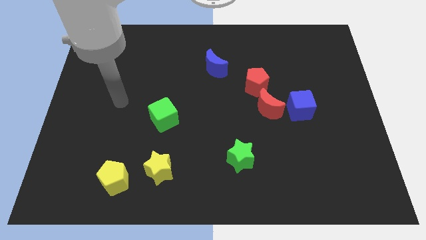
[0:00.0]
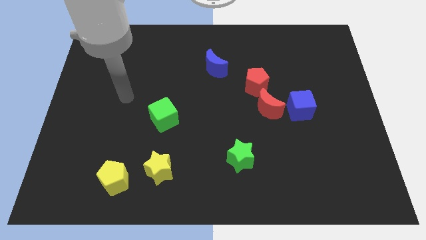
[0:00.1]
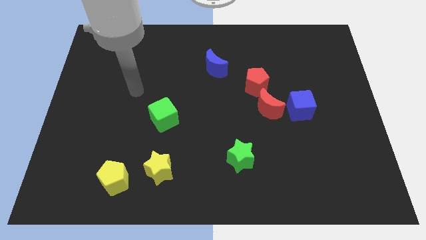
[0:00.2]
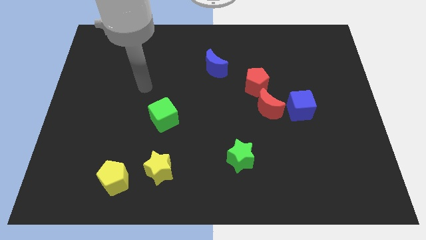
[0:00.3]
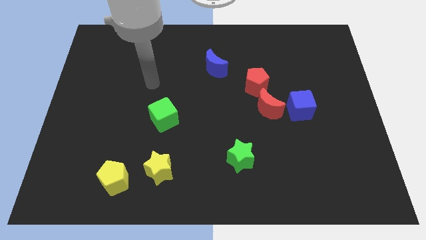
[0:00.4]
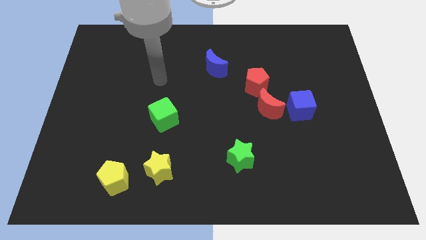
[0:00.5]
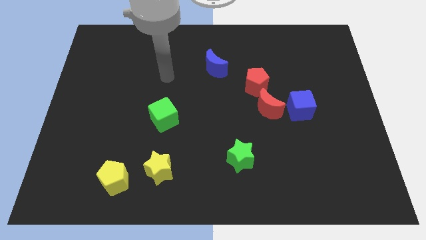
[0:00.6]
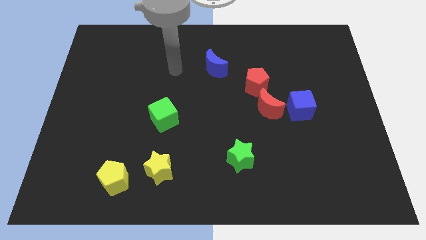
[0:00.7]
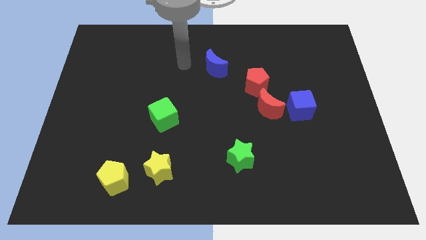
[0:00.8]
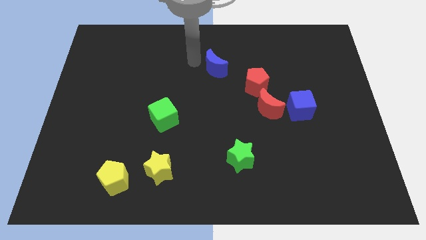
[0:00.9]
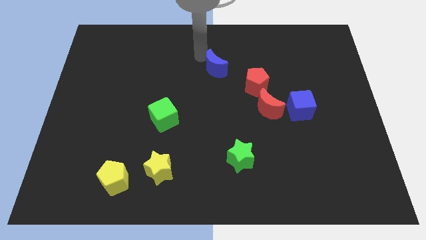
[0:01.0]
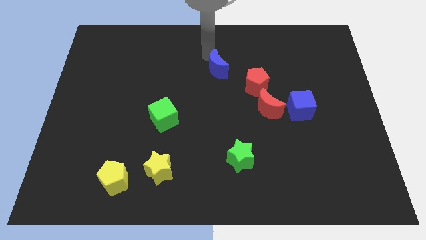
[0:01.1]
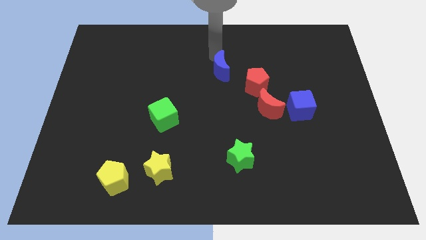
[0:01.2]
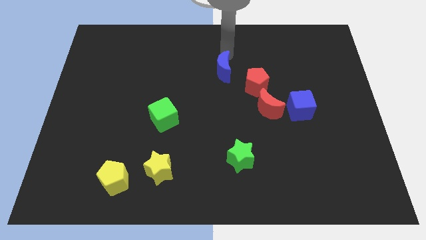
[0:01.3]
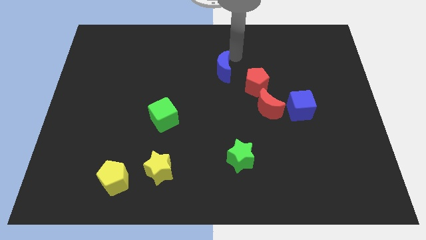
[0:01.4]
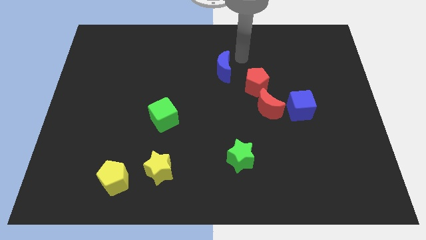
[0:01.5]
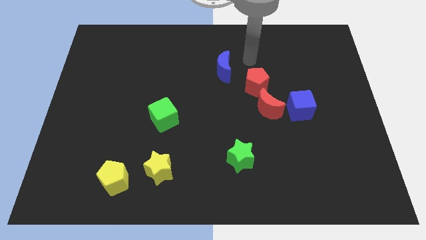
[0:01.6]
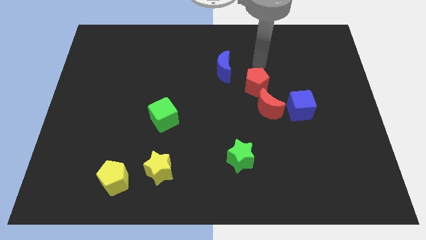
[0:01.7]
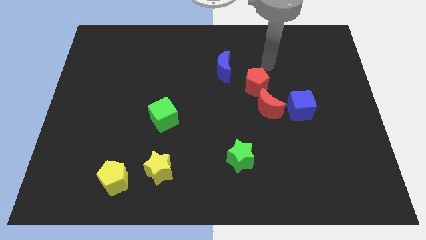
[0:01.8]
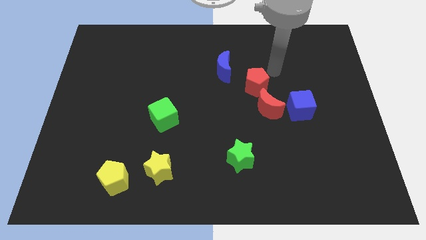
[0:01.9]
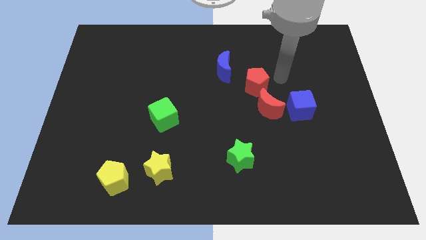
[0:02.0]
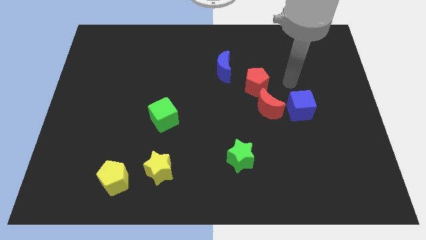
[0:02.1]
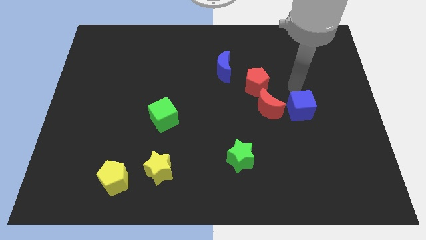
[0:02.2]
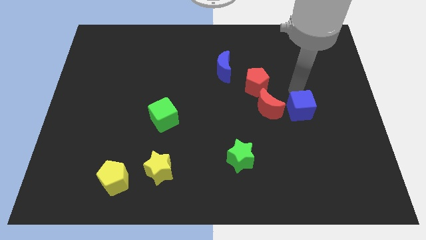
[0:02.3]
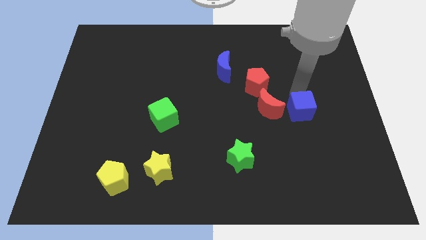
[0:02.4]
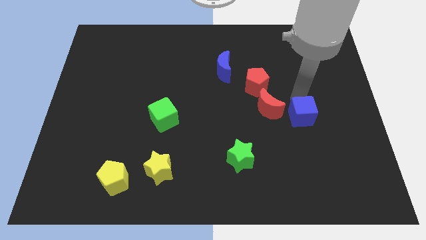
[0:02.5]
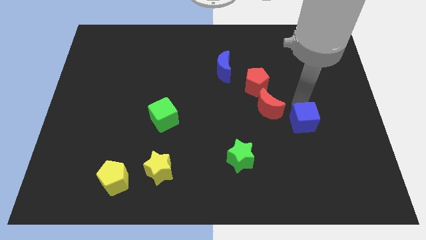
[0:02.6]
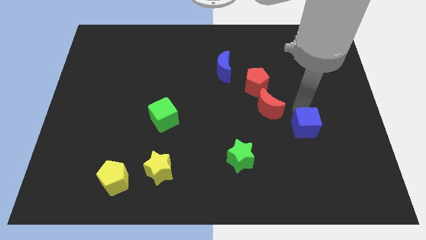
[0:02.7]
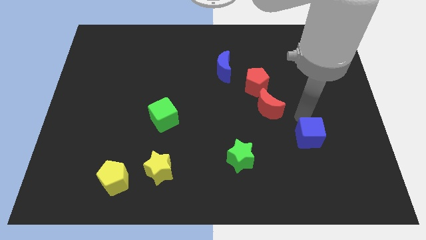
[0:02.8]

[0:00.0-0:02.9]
slightly move the blue cube down

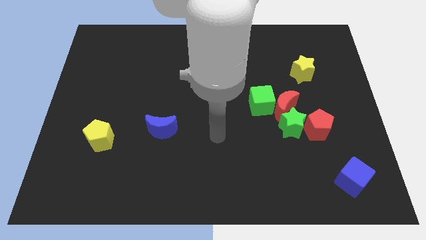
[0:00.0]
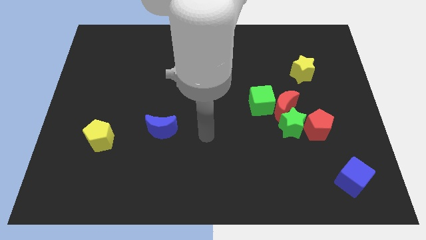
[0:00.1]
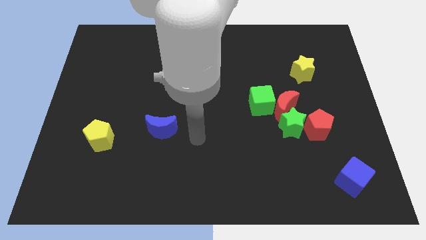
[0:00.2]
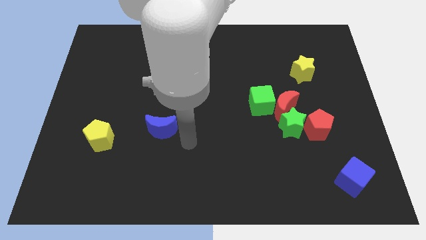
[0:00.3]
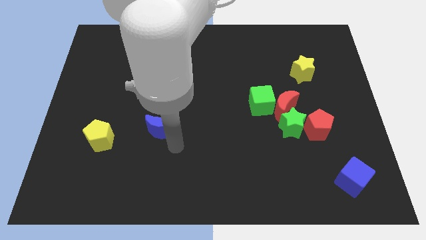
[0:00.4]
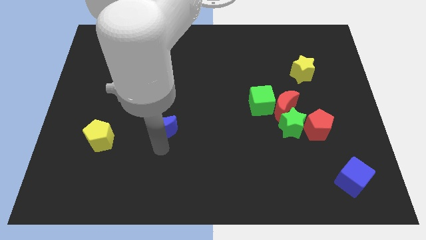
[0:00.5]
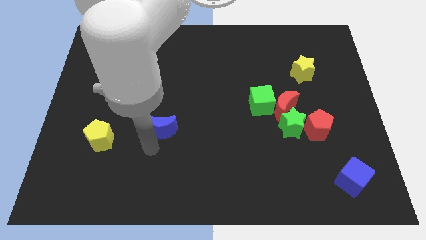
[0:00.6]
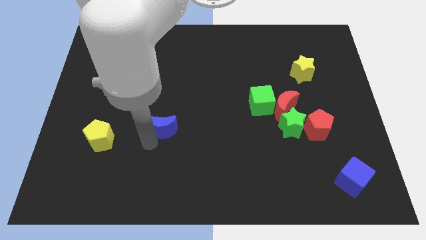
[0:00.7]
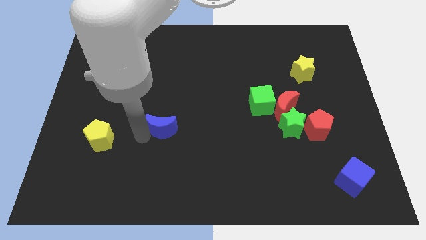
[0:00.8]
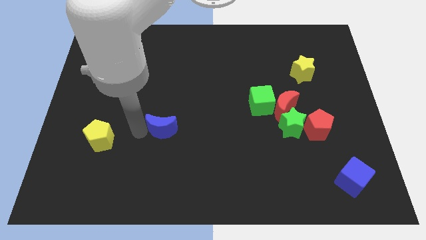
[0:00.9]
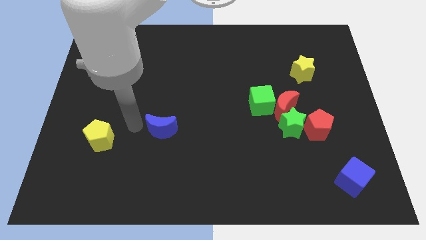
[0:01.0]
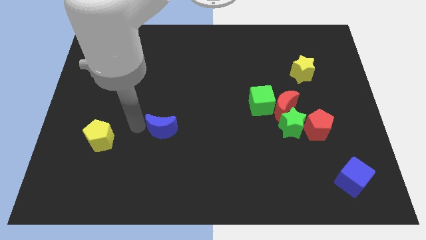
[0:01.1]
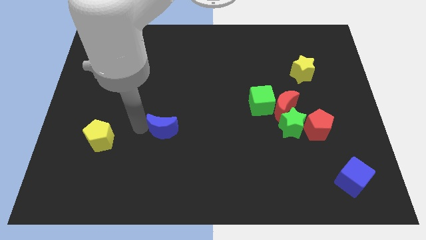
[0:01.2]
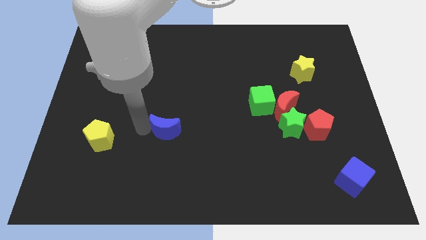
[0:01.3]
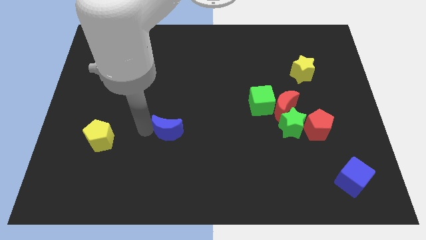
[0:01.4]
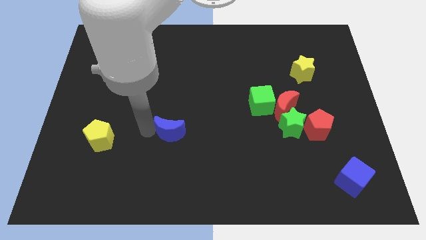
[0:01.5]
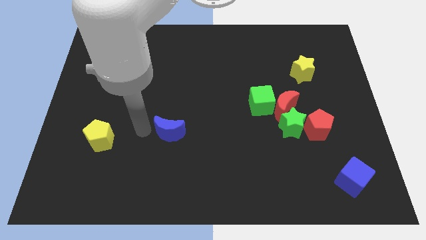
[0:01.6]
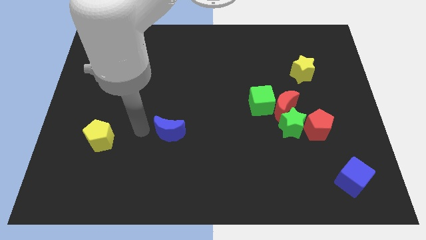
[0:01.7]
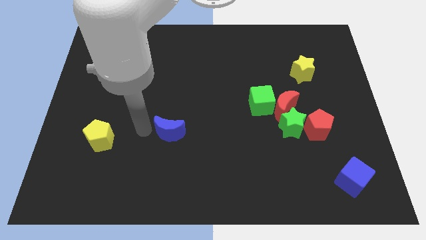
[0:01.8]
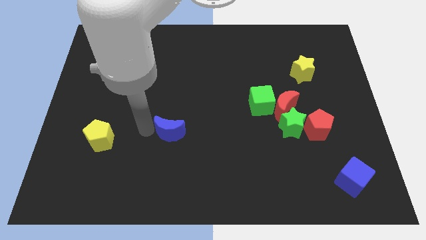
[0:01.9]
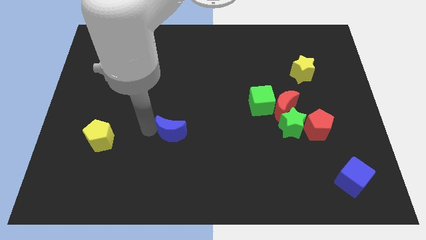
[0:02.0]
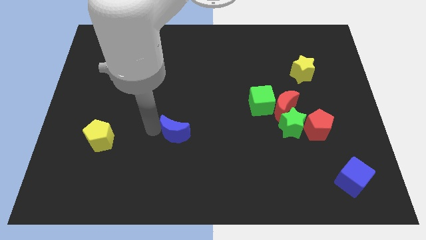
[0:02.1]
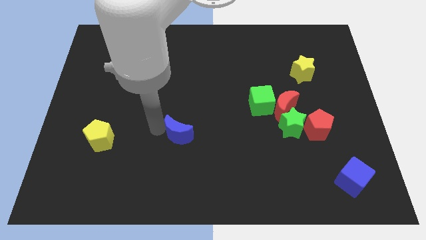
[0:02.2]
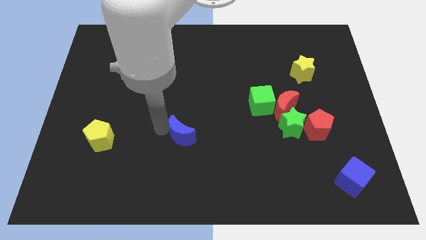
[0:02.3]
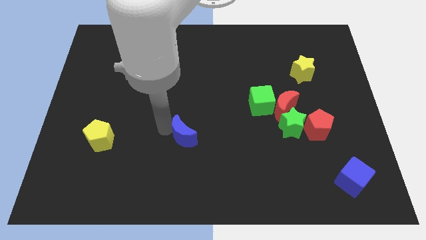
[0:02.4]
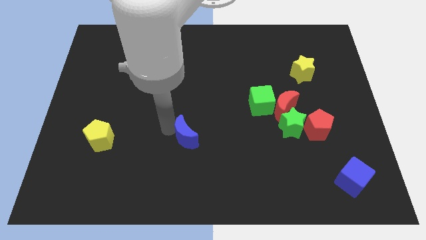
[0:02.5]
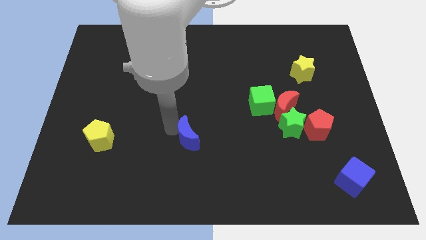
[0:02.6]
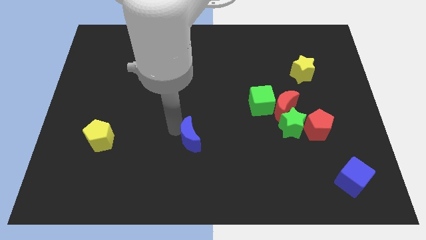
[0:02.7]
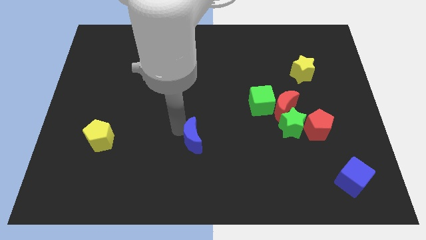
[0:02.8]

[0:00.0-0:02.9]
push the blue moon a little to the right

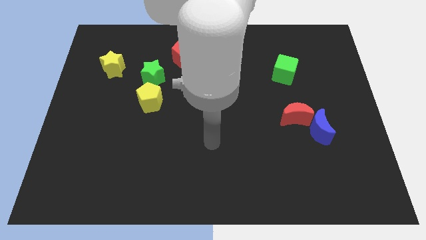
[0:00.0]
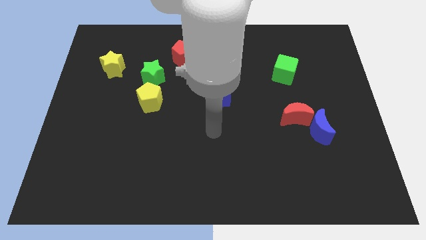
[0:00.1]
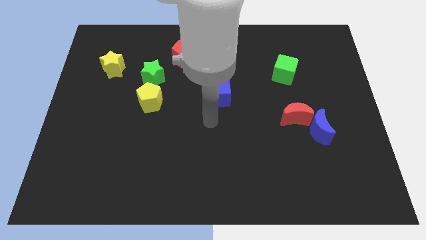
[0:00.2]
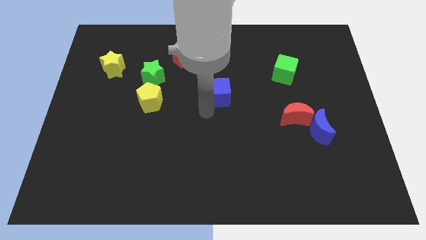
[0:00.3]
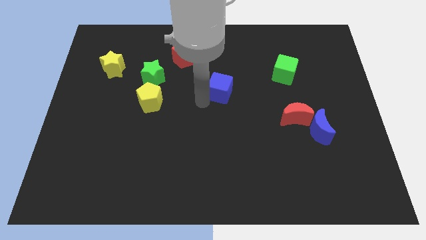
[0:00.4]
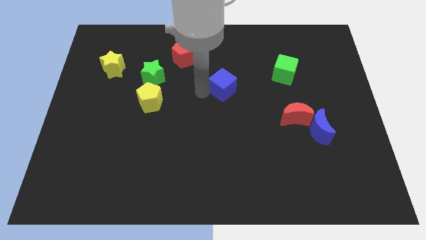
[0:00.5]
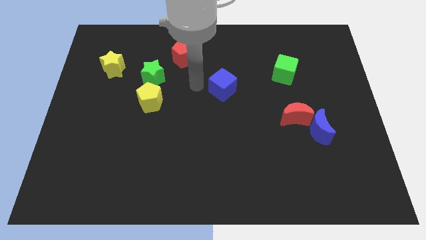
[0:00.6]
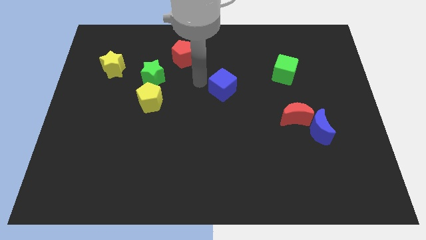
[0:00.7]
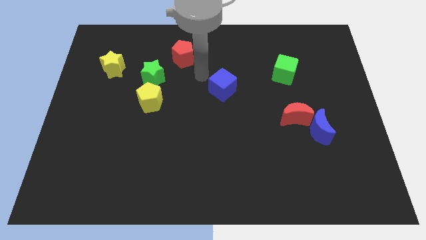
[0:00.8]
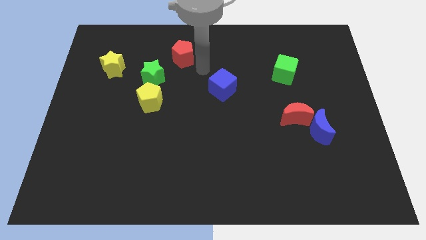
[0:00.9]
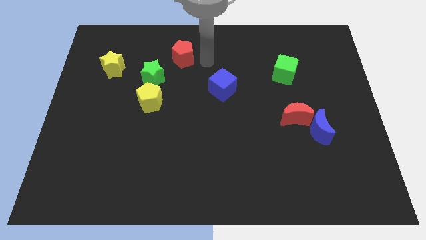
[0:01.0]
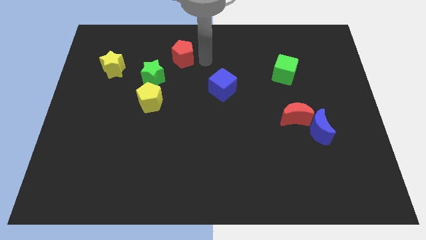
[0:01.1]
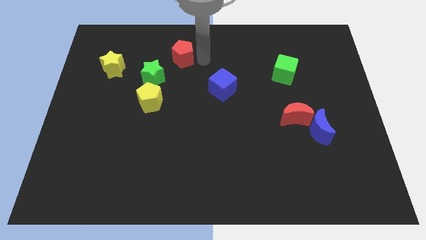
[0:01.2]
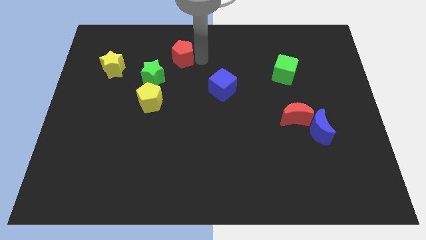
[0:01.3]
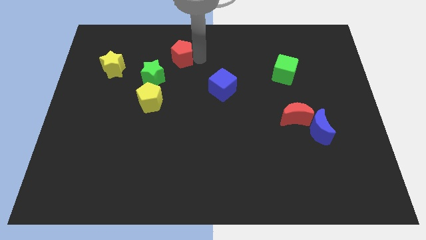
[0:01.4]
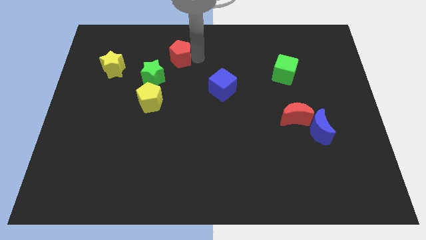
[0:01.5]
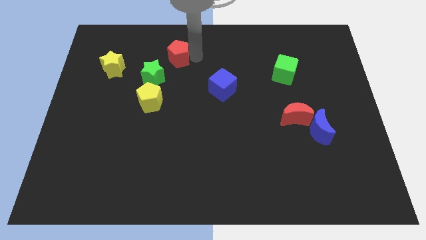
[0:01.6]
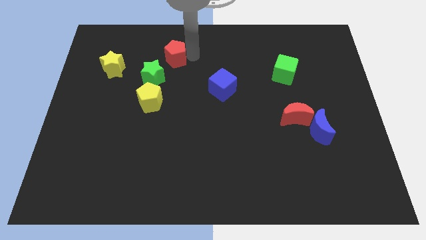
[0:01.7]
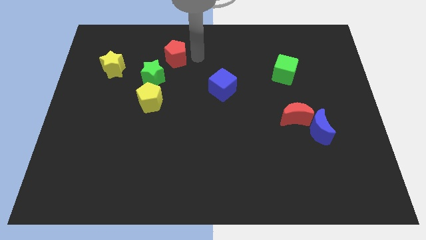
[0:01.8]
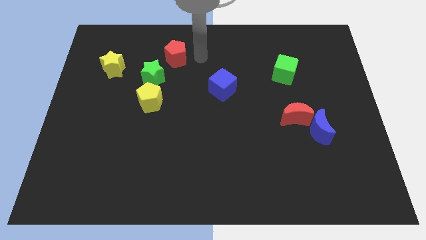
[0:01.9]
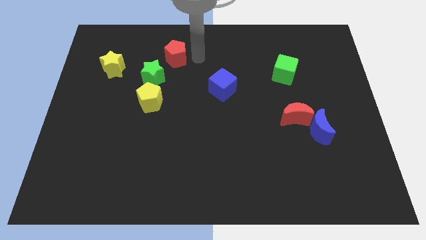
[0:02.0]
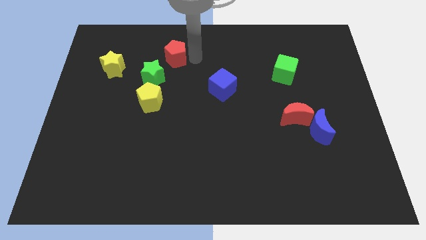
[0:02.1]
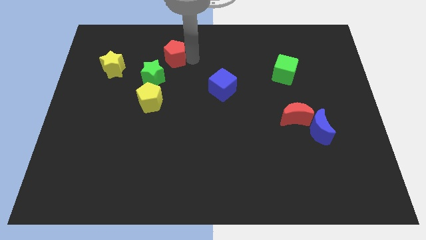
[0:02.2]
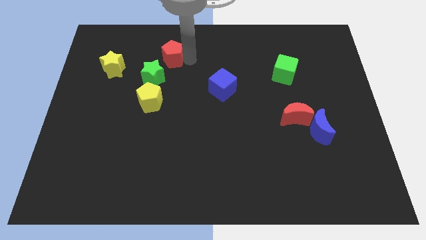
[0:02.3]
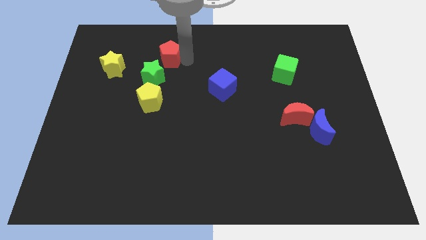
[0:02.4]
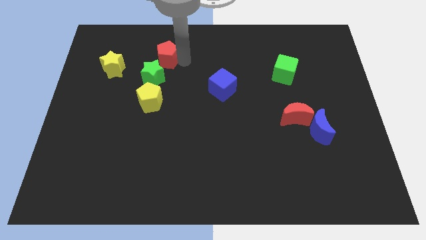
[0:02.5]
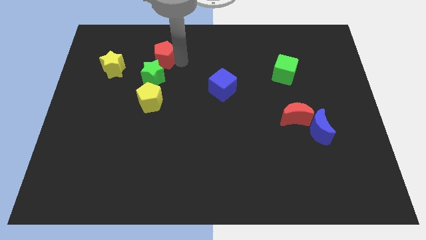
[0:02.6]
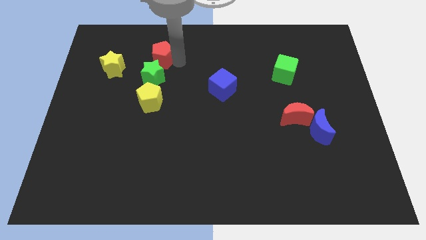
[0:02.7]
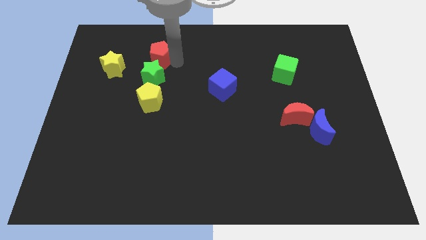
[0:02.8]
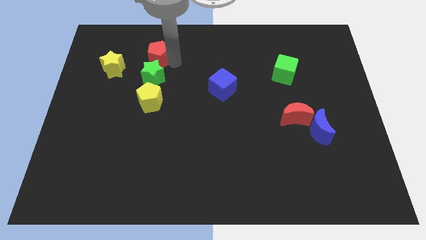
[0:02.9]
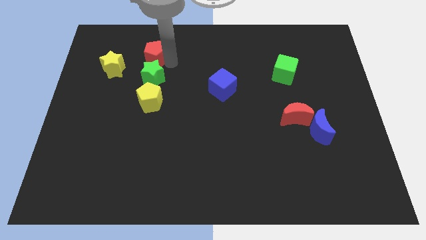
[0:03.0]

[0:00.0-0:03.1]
slightly push the red pentagon left
